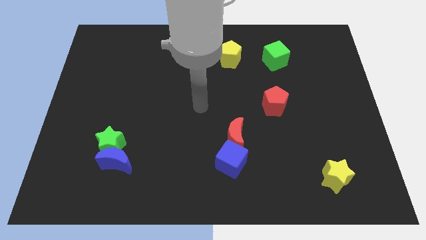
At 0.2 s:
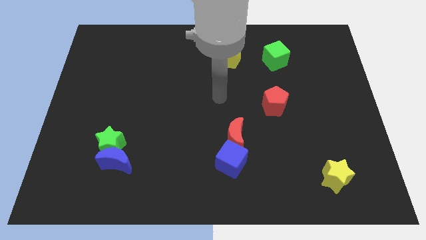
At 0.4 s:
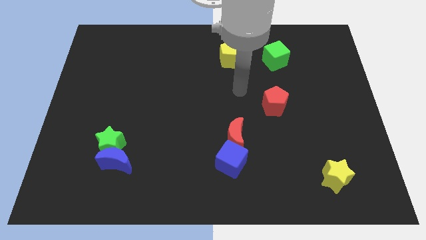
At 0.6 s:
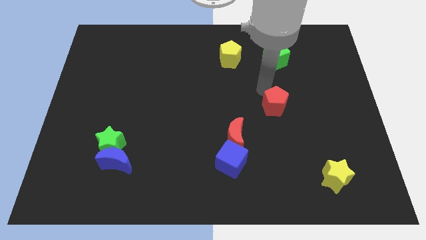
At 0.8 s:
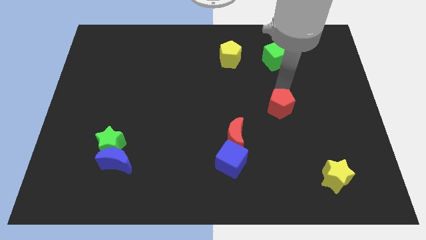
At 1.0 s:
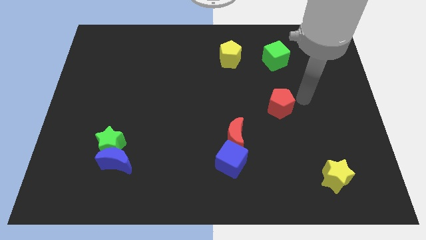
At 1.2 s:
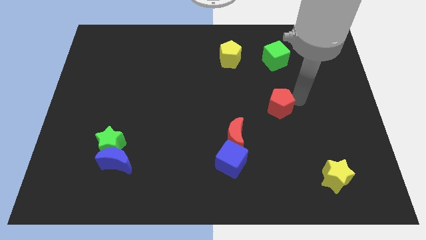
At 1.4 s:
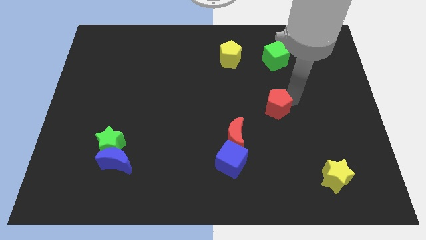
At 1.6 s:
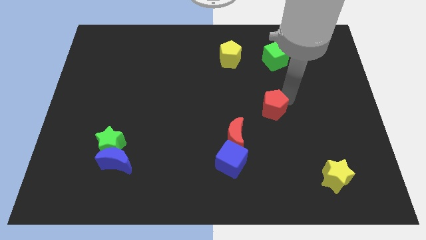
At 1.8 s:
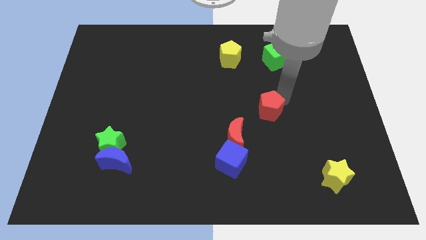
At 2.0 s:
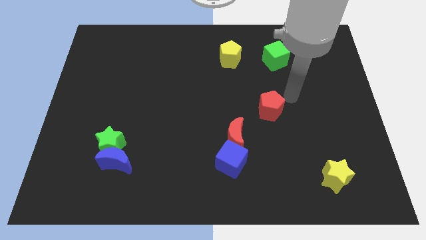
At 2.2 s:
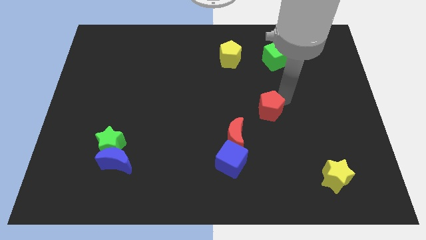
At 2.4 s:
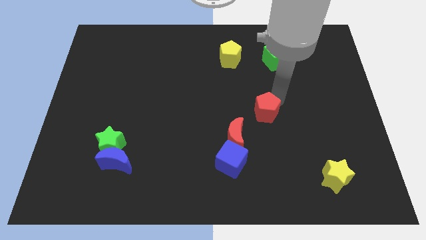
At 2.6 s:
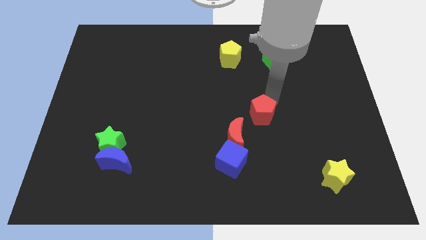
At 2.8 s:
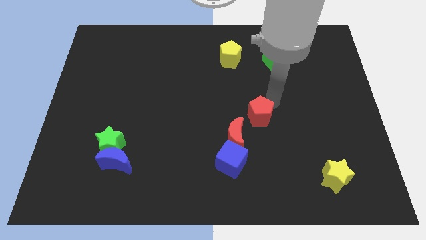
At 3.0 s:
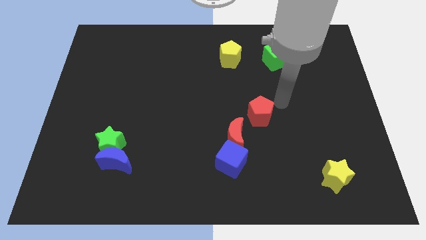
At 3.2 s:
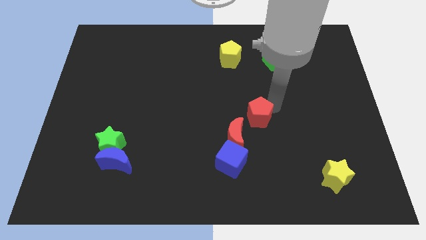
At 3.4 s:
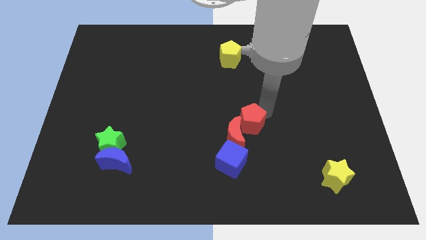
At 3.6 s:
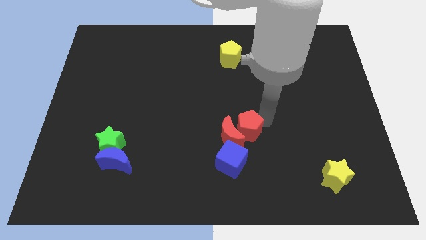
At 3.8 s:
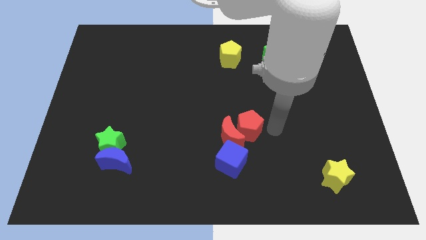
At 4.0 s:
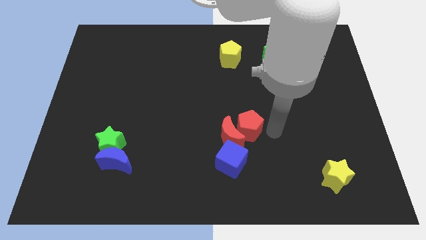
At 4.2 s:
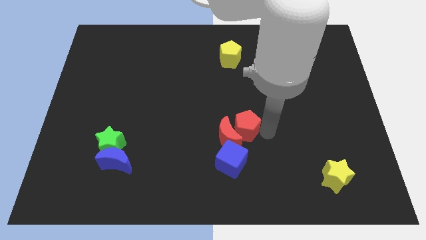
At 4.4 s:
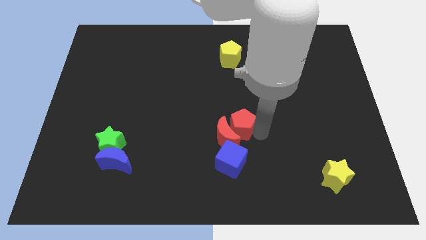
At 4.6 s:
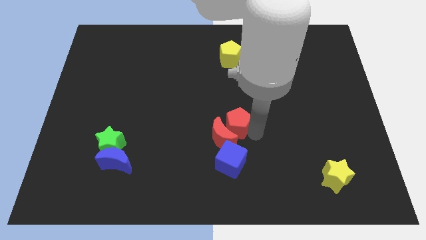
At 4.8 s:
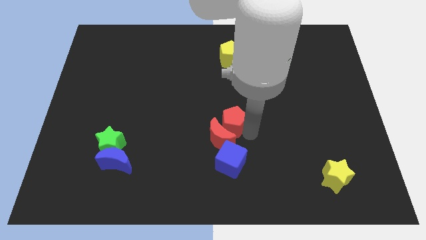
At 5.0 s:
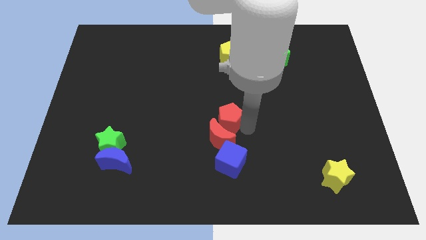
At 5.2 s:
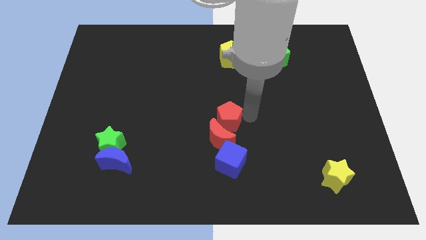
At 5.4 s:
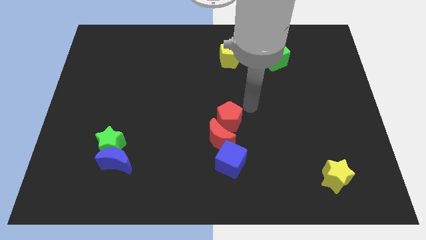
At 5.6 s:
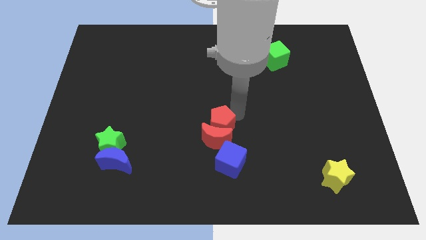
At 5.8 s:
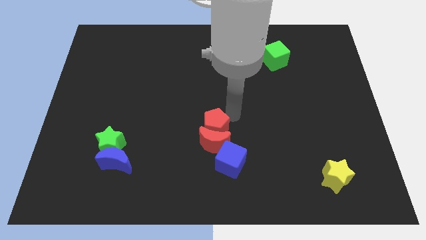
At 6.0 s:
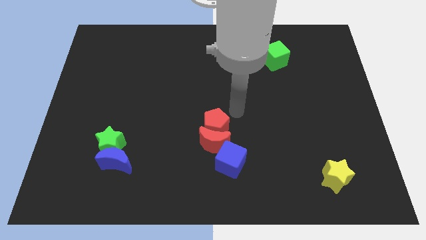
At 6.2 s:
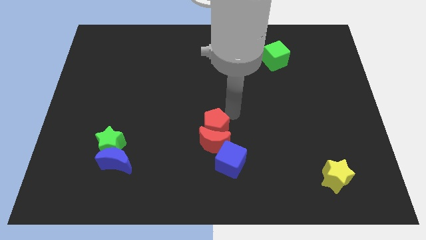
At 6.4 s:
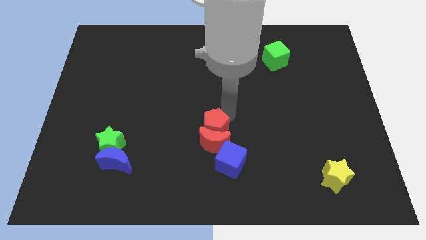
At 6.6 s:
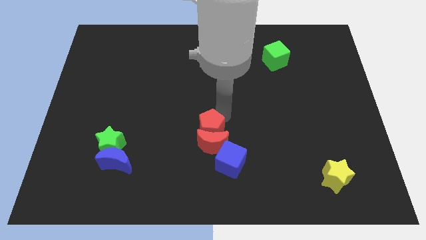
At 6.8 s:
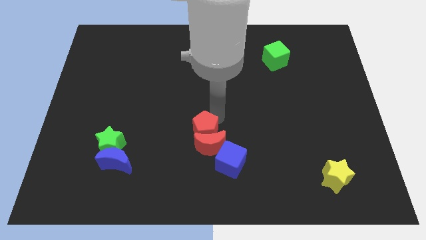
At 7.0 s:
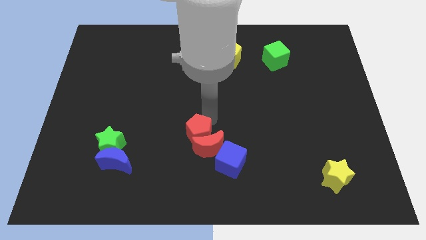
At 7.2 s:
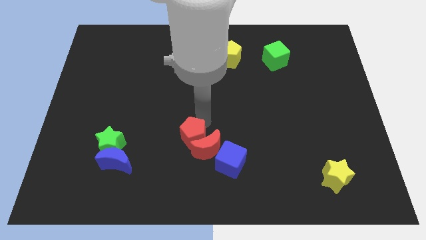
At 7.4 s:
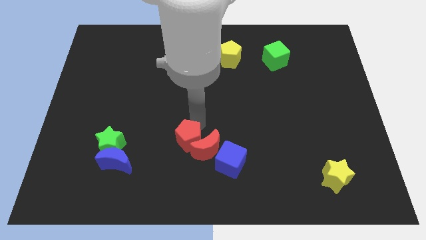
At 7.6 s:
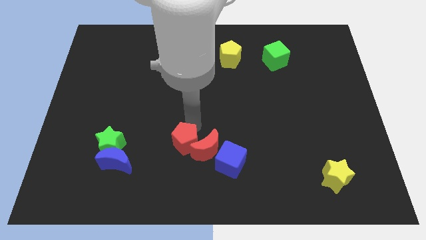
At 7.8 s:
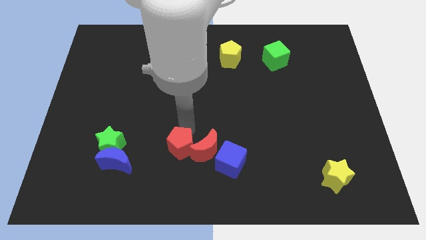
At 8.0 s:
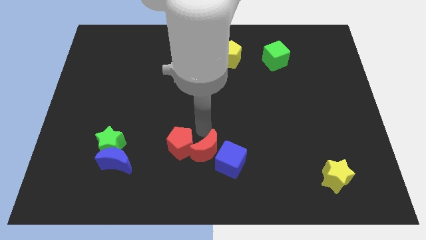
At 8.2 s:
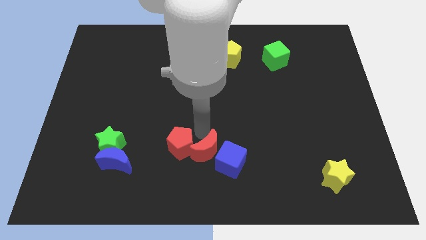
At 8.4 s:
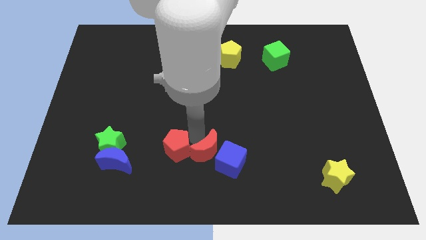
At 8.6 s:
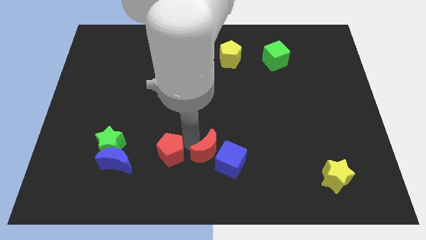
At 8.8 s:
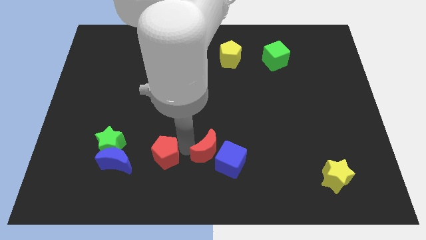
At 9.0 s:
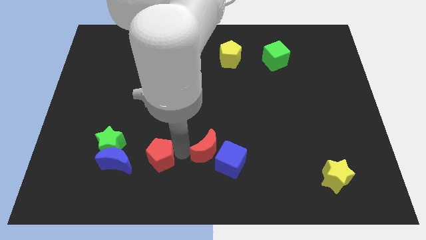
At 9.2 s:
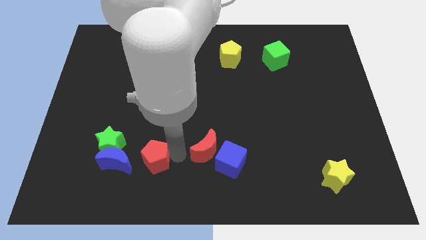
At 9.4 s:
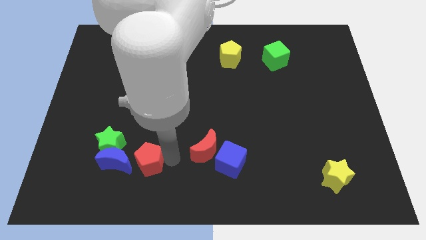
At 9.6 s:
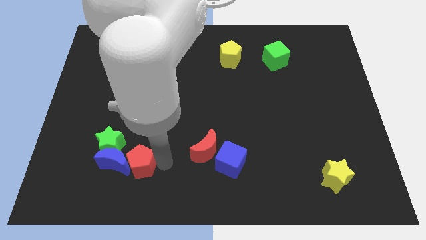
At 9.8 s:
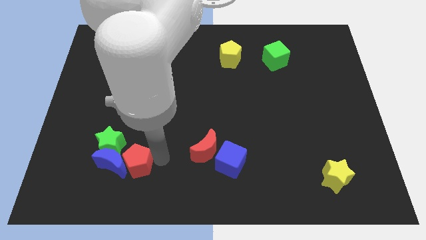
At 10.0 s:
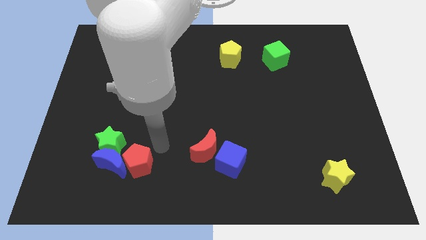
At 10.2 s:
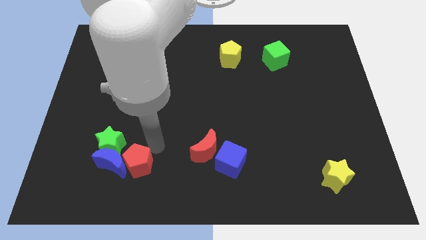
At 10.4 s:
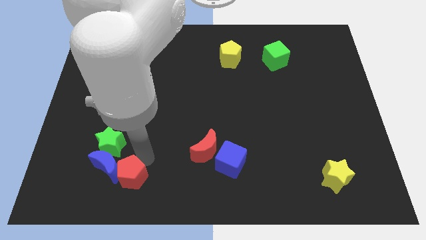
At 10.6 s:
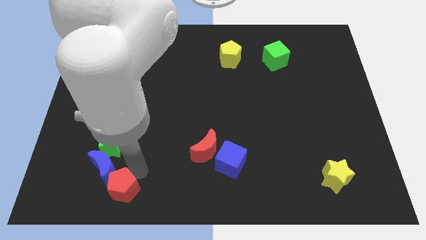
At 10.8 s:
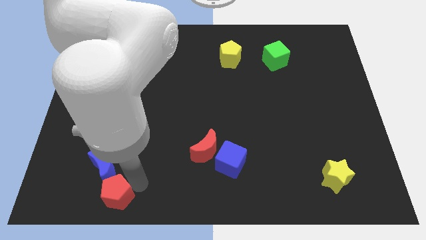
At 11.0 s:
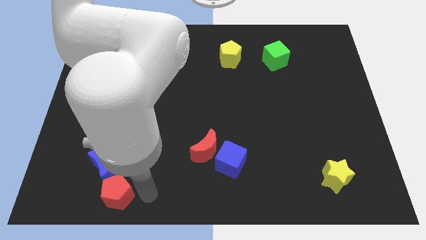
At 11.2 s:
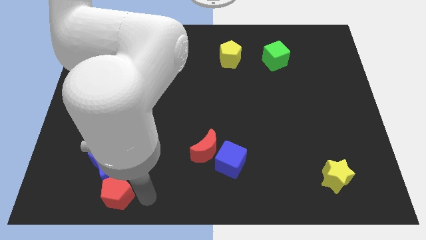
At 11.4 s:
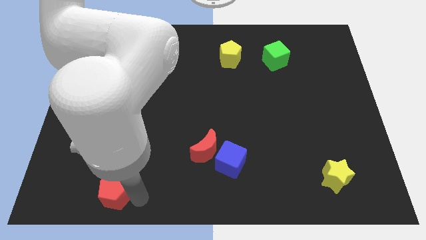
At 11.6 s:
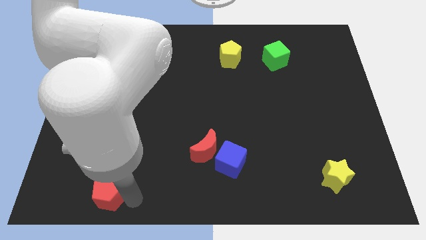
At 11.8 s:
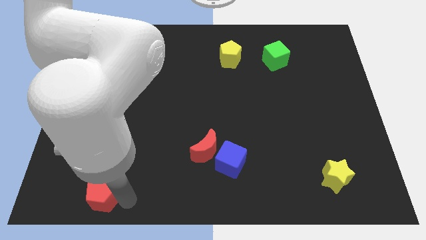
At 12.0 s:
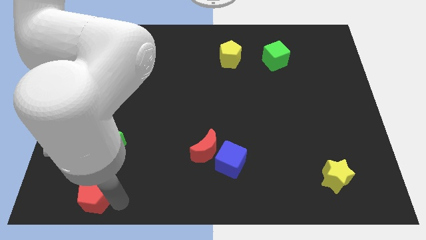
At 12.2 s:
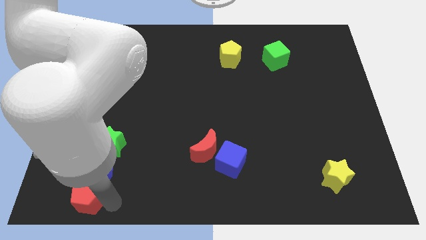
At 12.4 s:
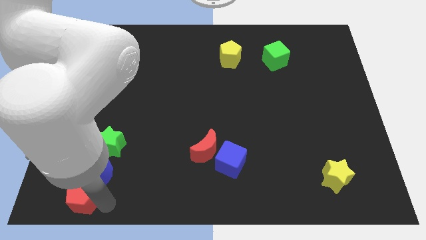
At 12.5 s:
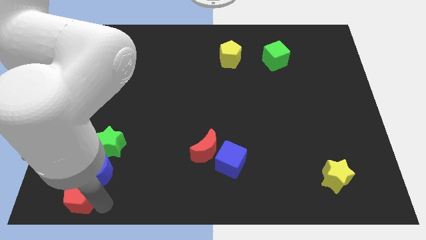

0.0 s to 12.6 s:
move the red pentagon to the bottom left
